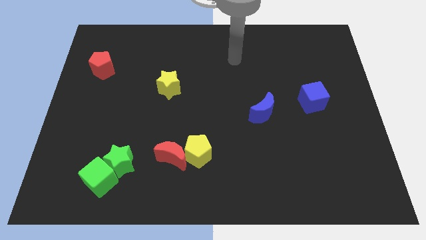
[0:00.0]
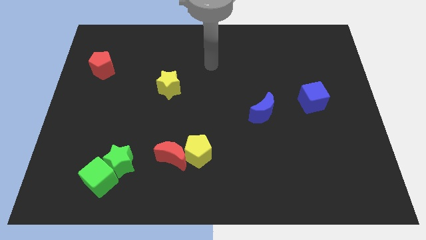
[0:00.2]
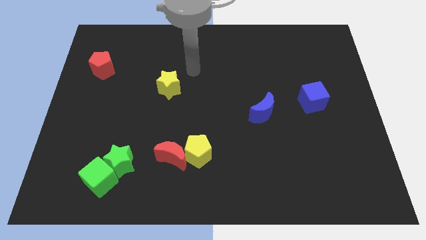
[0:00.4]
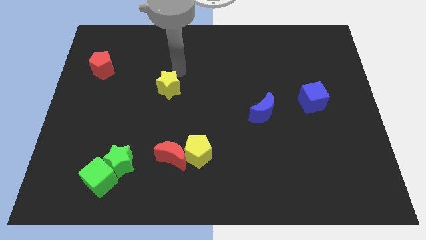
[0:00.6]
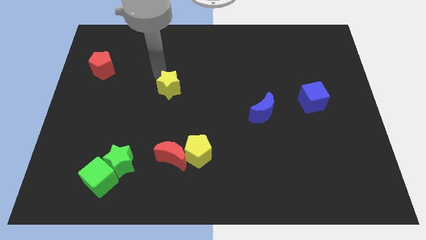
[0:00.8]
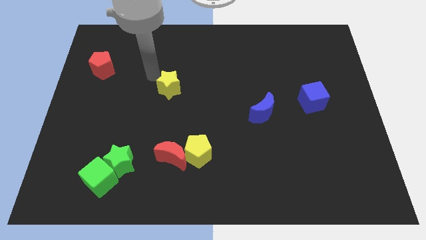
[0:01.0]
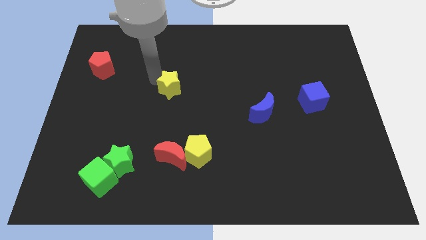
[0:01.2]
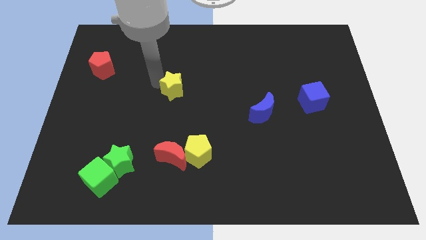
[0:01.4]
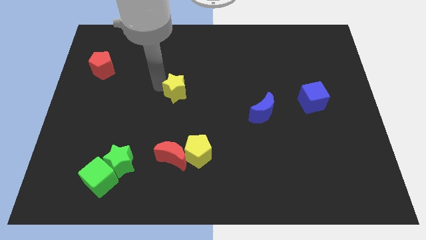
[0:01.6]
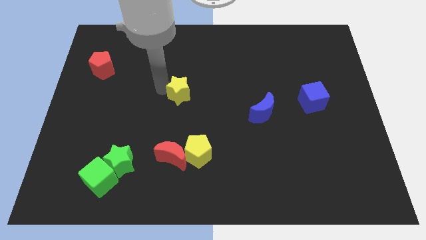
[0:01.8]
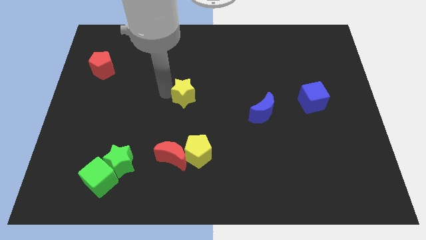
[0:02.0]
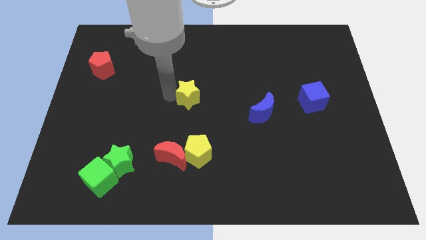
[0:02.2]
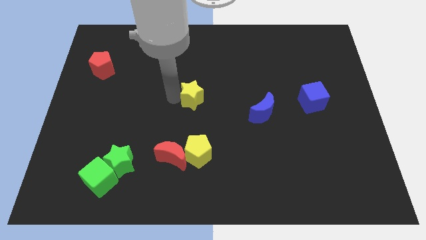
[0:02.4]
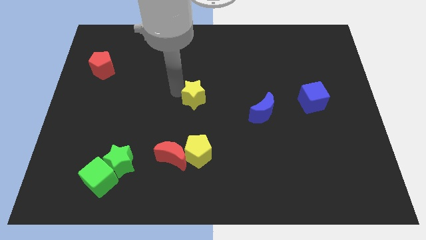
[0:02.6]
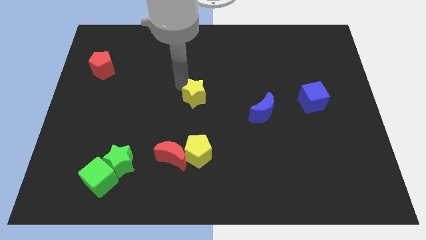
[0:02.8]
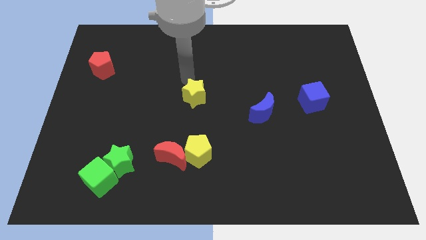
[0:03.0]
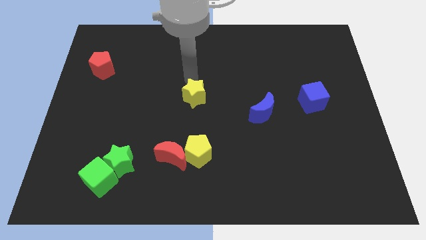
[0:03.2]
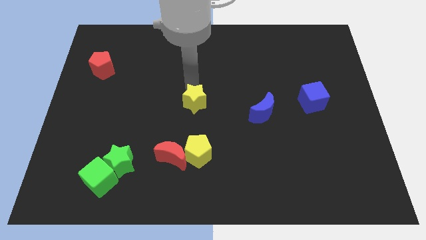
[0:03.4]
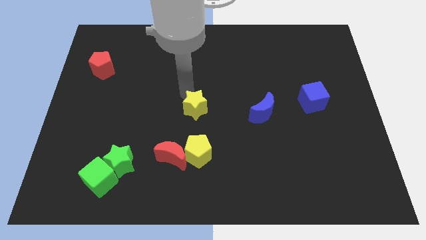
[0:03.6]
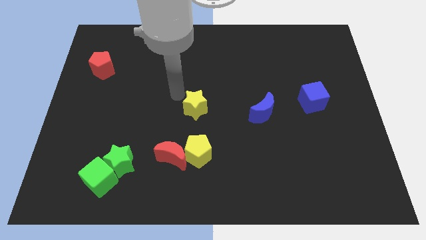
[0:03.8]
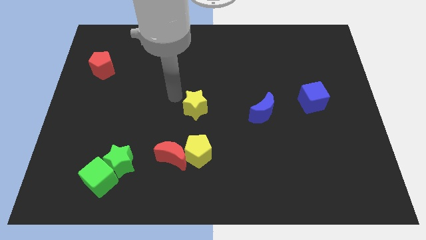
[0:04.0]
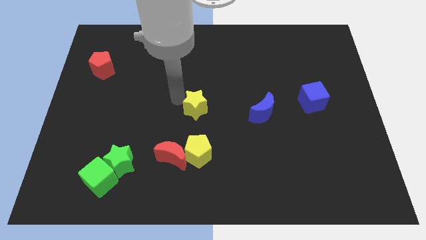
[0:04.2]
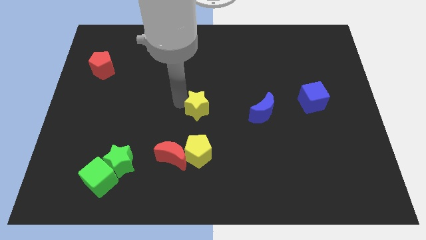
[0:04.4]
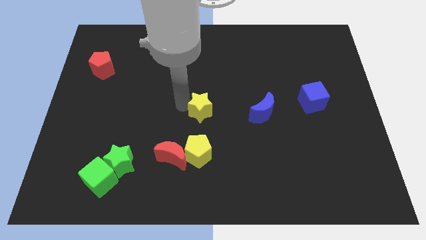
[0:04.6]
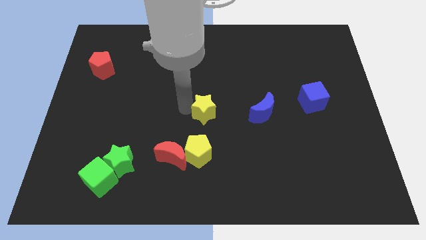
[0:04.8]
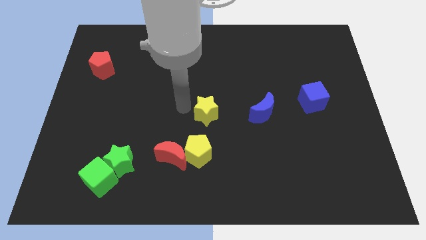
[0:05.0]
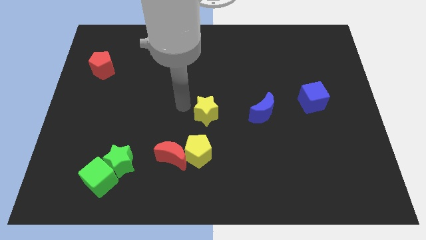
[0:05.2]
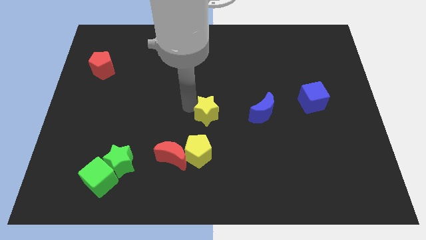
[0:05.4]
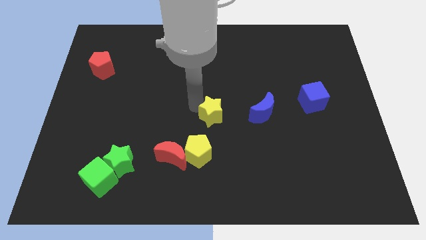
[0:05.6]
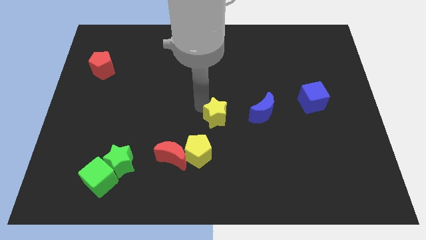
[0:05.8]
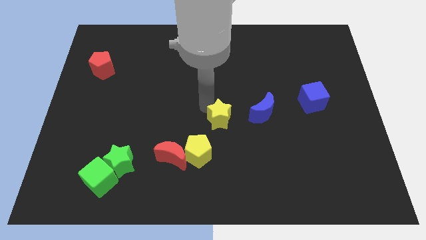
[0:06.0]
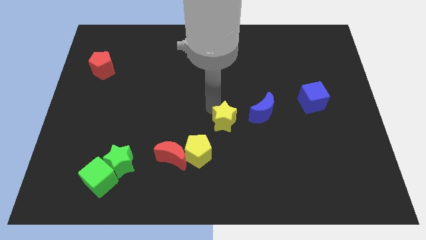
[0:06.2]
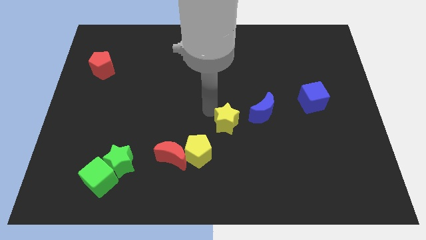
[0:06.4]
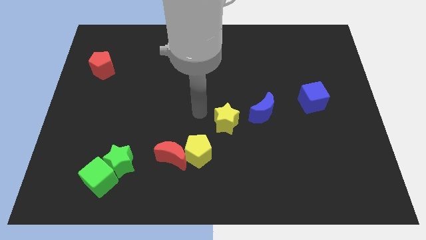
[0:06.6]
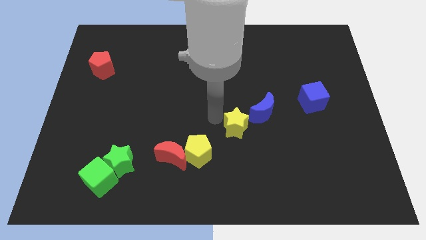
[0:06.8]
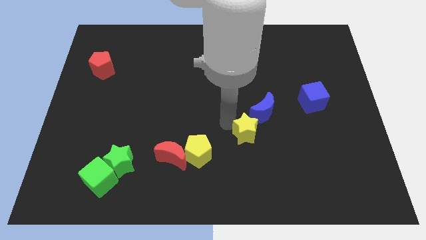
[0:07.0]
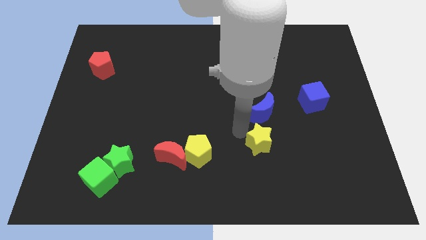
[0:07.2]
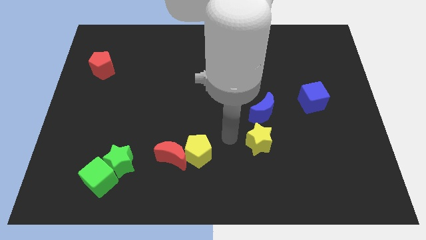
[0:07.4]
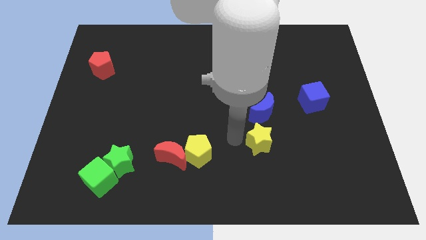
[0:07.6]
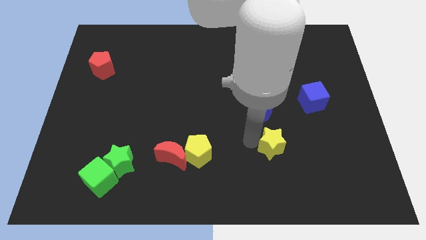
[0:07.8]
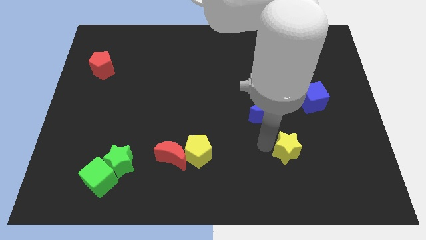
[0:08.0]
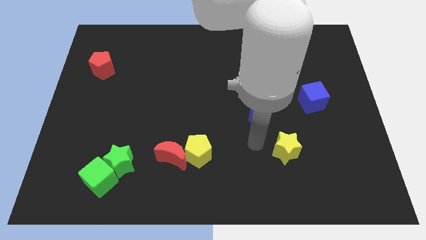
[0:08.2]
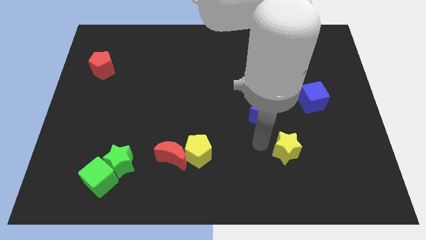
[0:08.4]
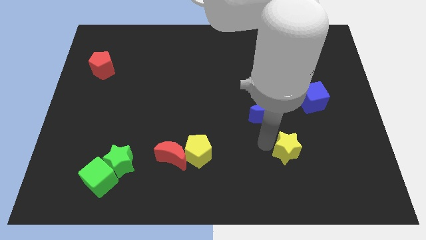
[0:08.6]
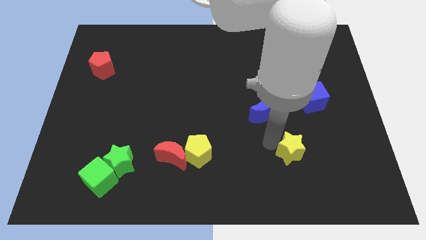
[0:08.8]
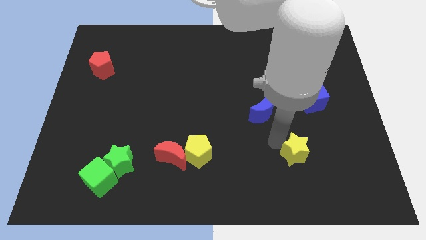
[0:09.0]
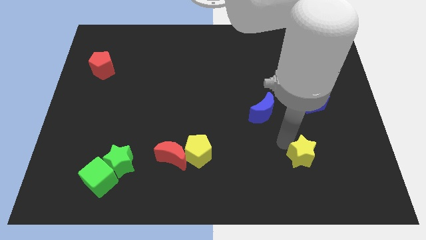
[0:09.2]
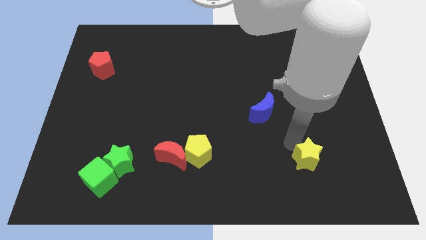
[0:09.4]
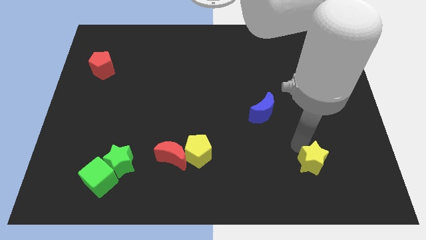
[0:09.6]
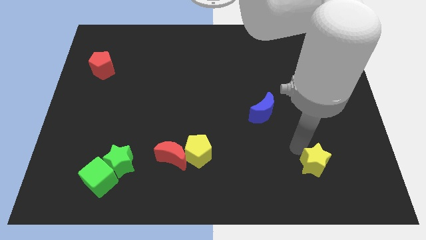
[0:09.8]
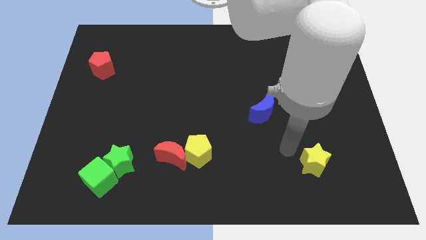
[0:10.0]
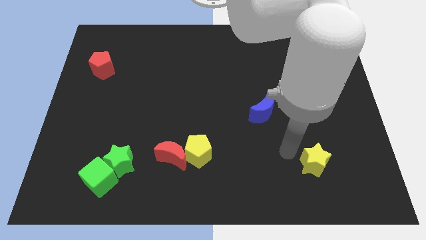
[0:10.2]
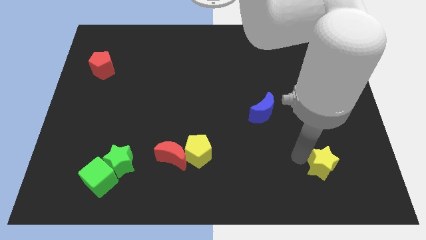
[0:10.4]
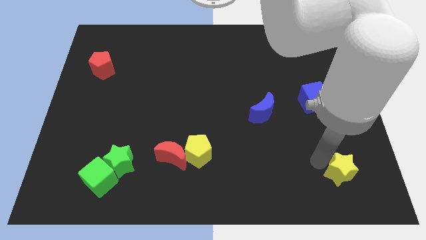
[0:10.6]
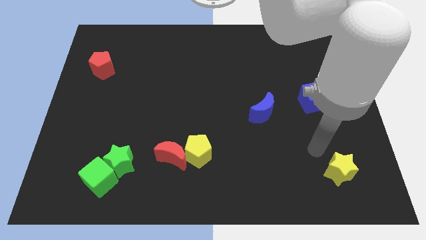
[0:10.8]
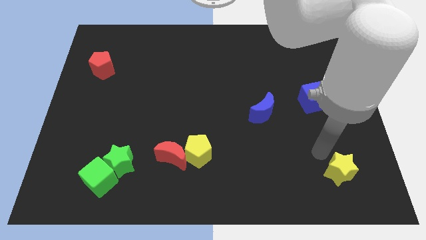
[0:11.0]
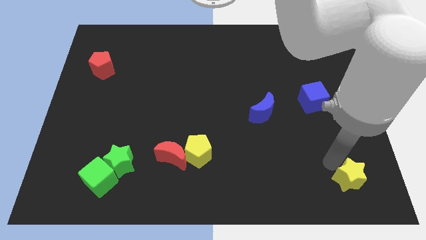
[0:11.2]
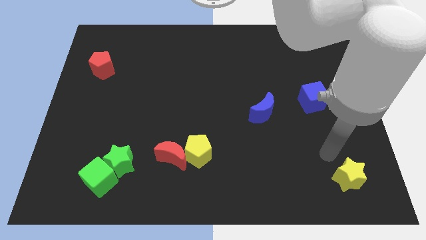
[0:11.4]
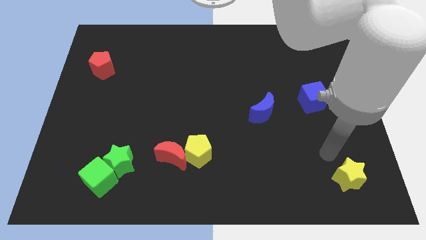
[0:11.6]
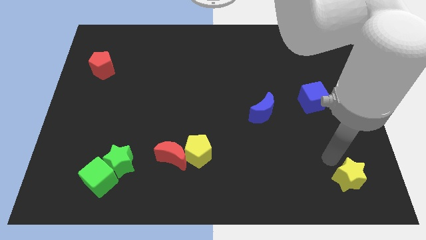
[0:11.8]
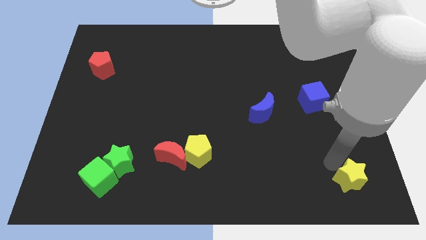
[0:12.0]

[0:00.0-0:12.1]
push the yellow star to the bottom right corner
